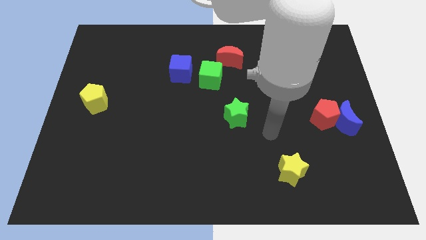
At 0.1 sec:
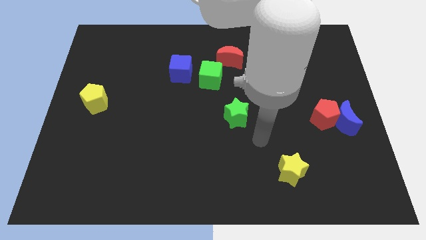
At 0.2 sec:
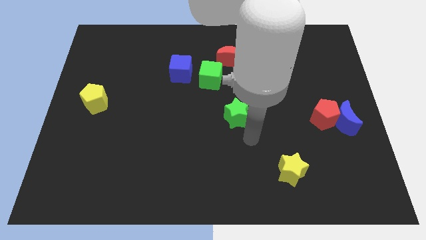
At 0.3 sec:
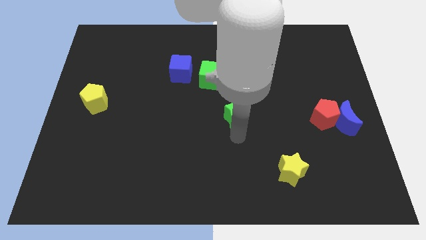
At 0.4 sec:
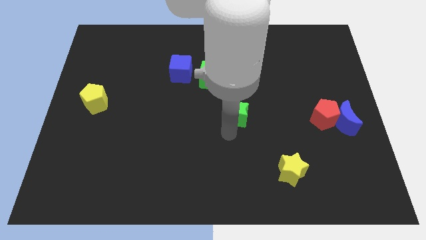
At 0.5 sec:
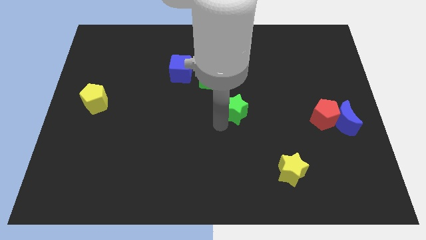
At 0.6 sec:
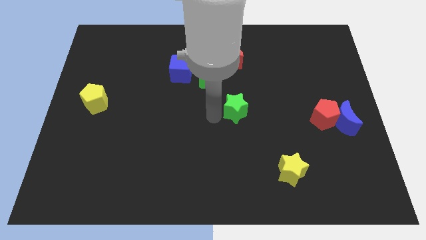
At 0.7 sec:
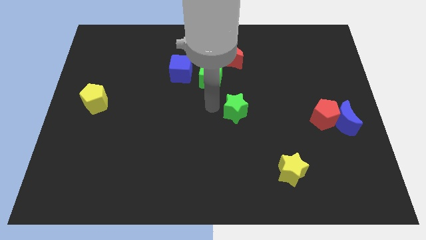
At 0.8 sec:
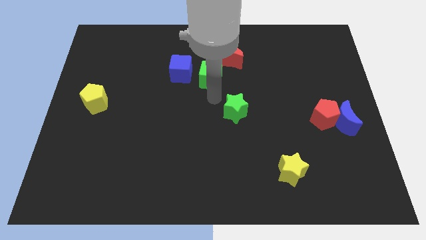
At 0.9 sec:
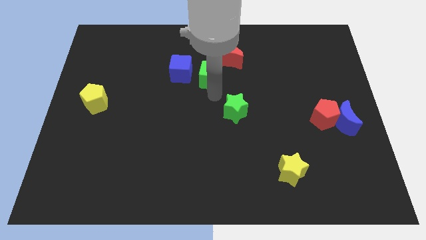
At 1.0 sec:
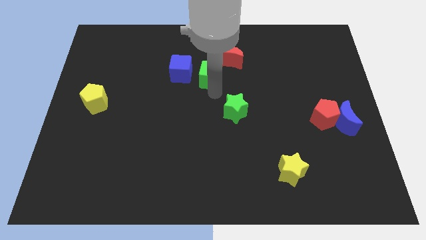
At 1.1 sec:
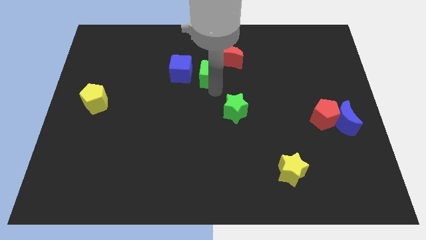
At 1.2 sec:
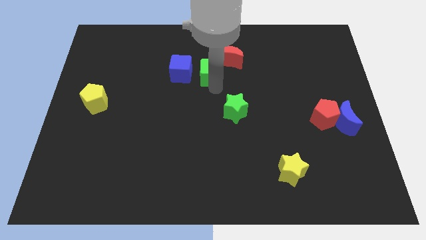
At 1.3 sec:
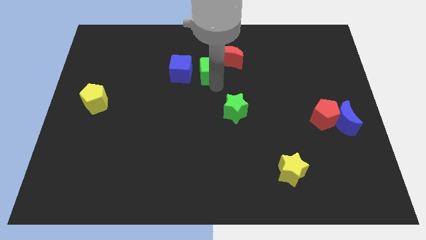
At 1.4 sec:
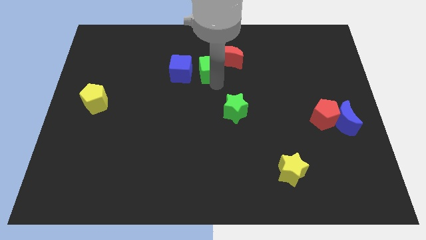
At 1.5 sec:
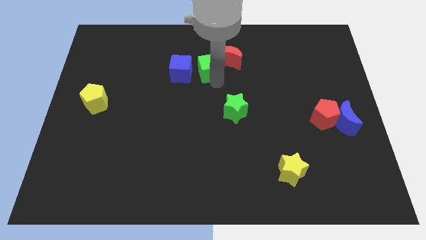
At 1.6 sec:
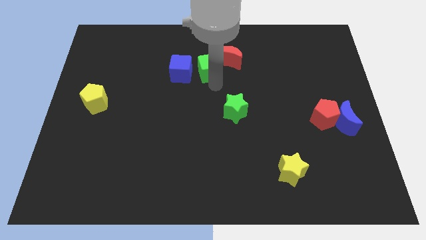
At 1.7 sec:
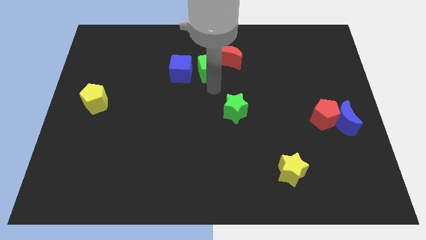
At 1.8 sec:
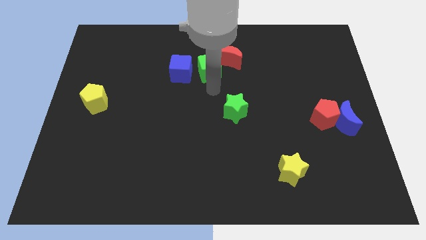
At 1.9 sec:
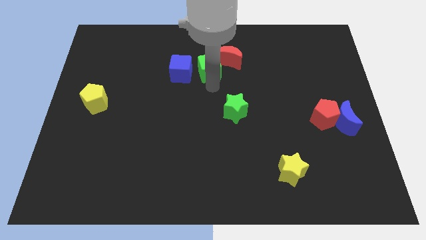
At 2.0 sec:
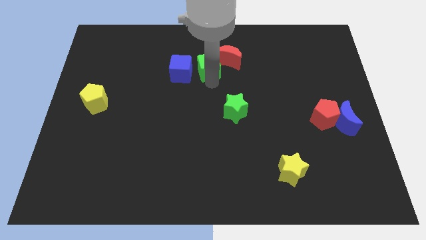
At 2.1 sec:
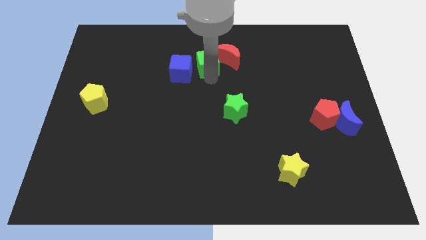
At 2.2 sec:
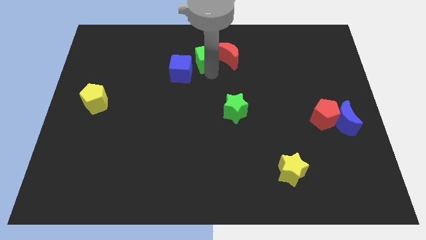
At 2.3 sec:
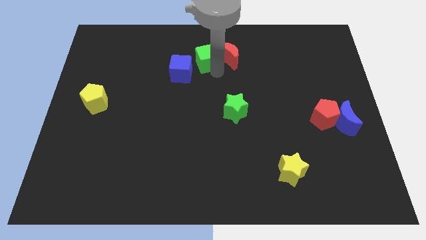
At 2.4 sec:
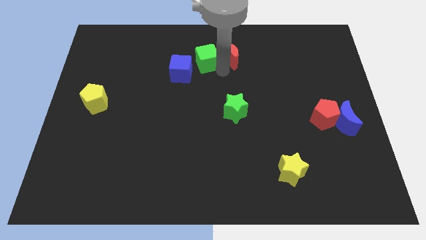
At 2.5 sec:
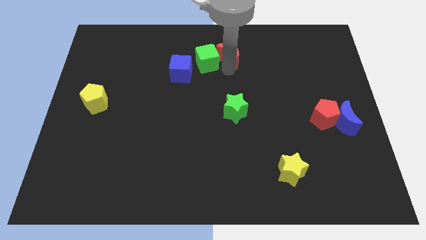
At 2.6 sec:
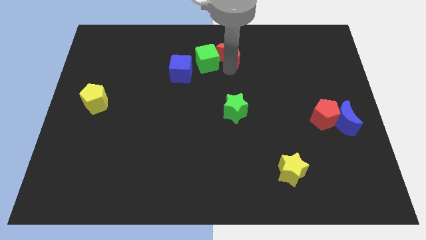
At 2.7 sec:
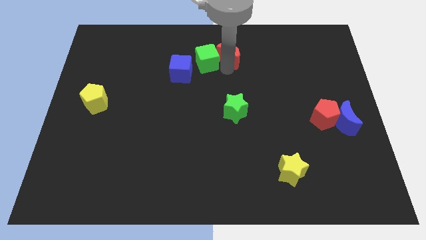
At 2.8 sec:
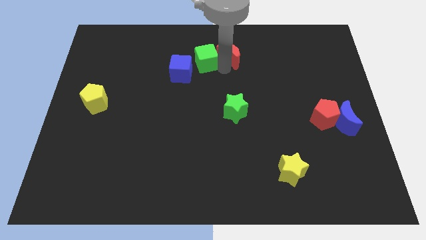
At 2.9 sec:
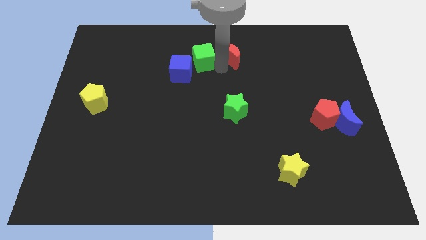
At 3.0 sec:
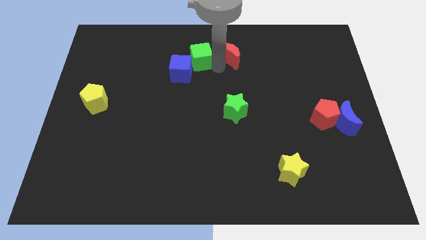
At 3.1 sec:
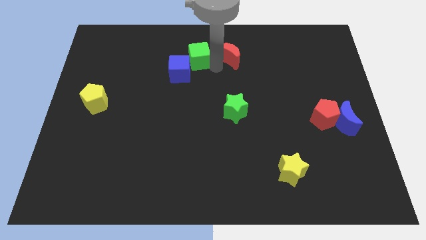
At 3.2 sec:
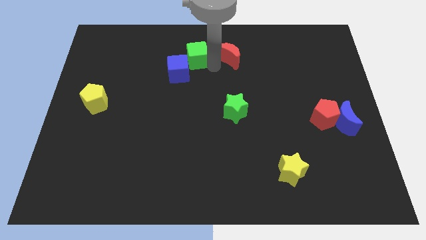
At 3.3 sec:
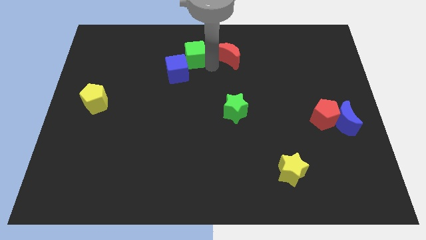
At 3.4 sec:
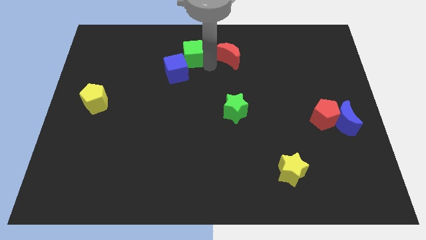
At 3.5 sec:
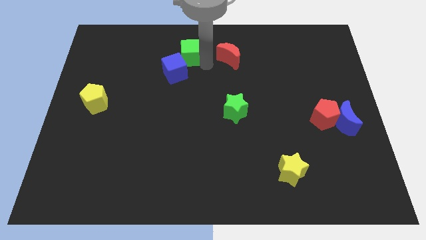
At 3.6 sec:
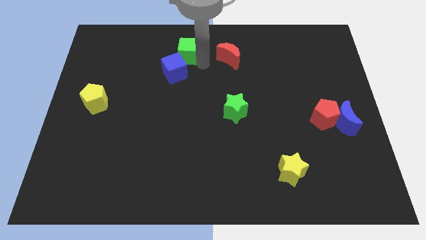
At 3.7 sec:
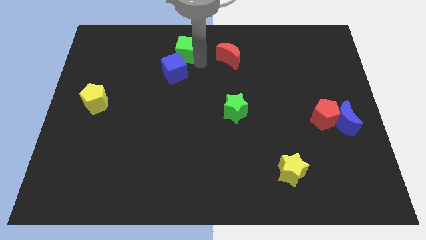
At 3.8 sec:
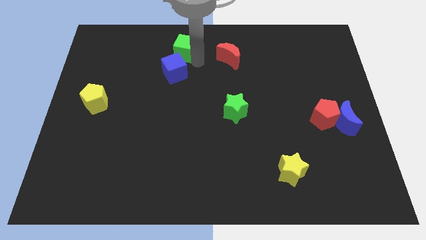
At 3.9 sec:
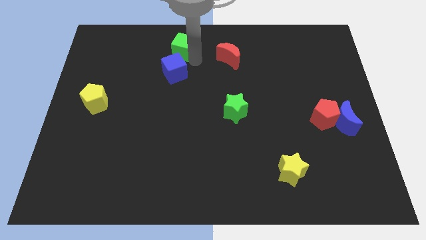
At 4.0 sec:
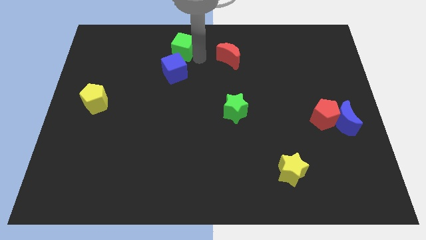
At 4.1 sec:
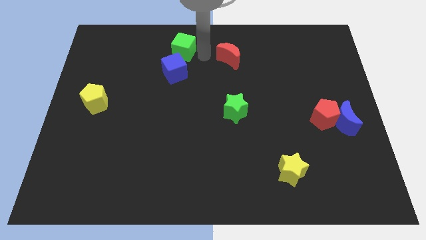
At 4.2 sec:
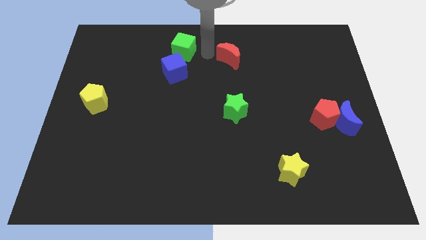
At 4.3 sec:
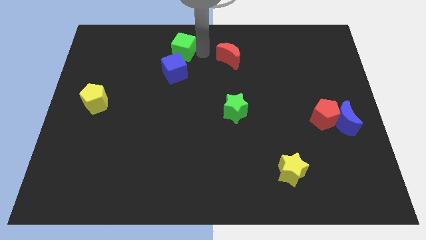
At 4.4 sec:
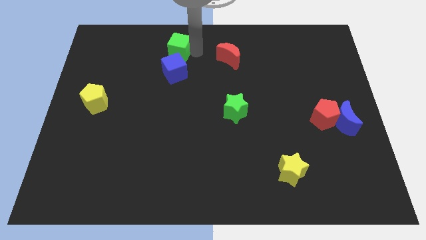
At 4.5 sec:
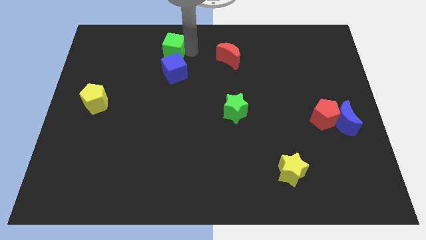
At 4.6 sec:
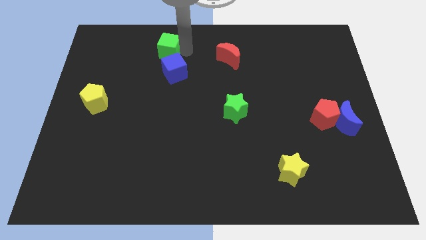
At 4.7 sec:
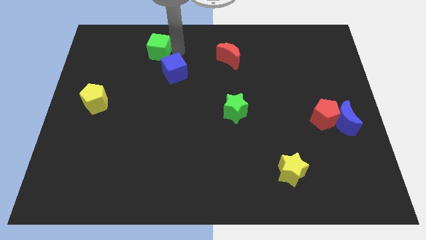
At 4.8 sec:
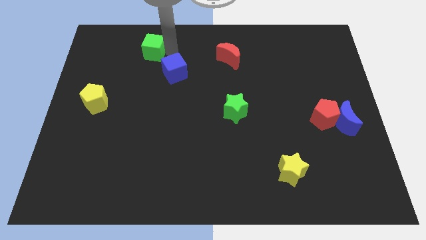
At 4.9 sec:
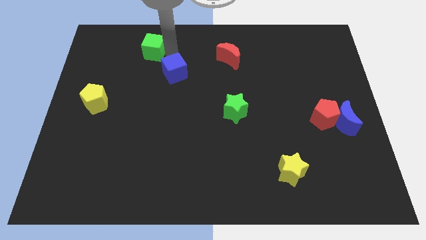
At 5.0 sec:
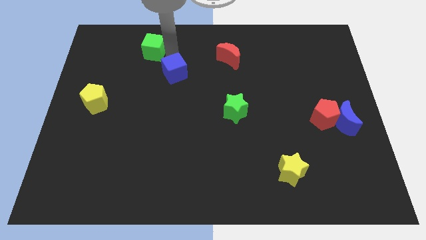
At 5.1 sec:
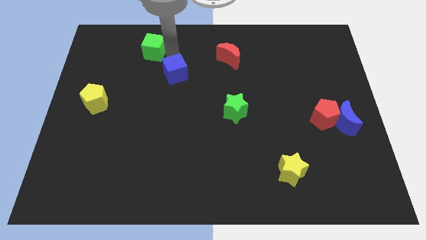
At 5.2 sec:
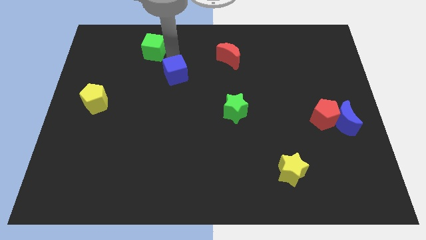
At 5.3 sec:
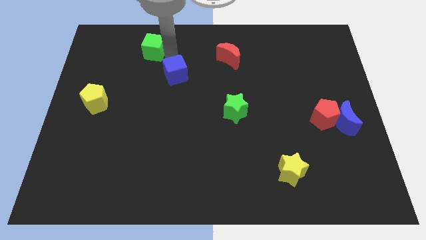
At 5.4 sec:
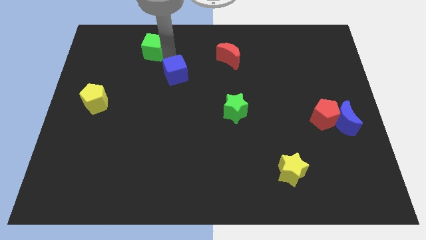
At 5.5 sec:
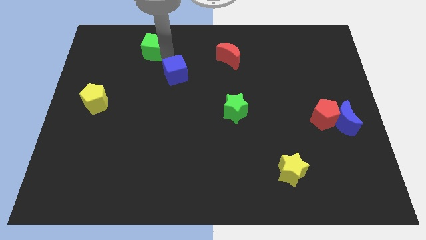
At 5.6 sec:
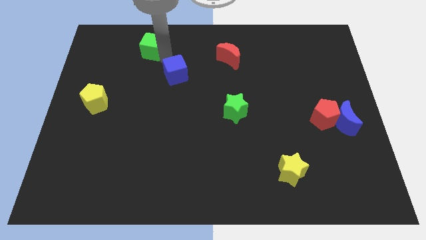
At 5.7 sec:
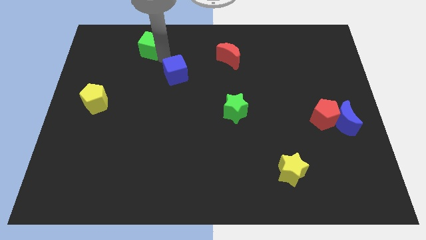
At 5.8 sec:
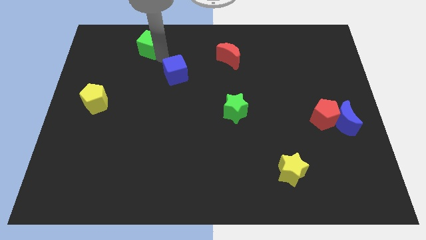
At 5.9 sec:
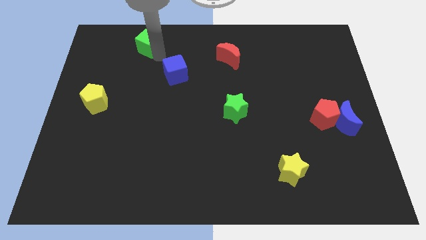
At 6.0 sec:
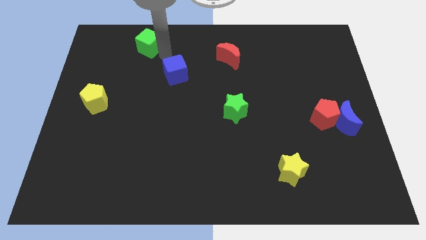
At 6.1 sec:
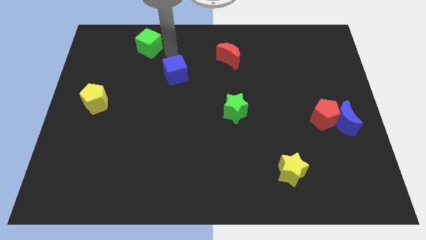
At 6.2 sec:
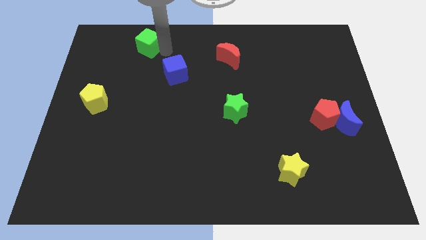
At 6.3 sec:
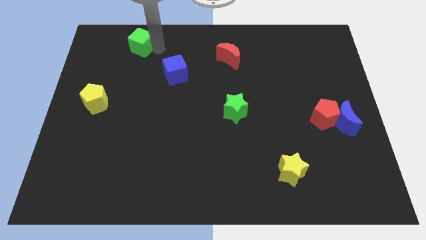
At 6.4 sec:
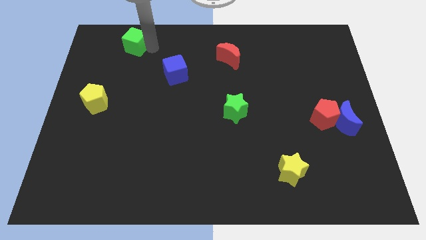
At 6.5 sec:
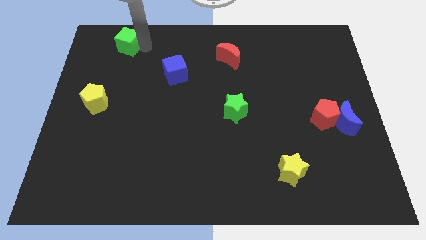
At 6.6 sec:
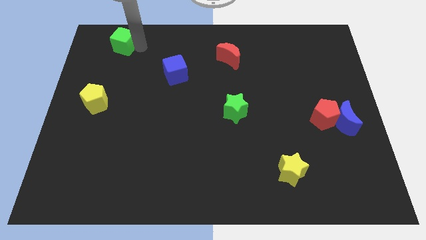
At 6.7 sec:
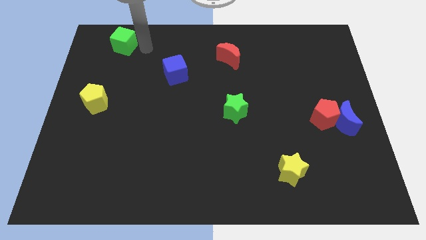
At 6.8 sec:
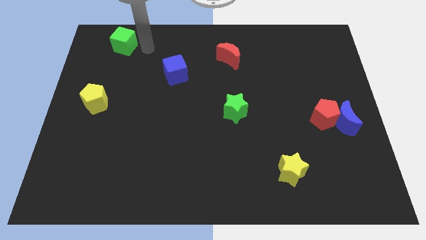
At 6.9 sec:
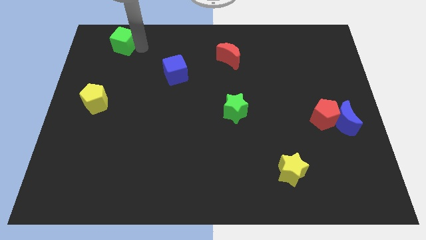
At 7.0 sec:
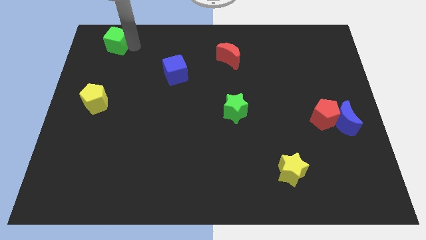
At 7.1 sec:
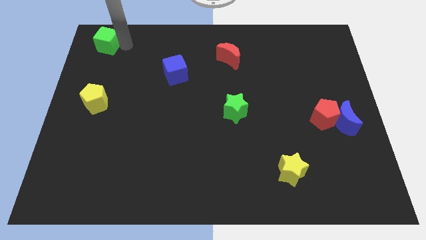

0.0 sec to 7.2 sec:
push the green cube to the top left corner
